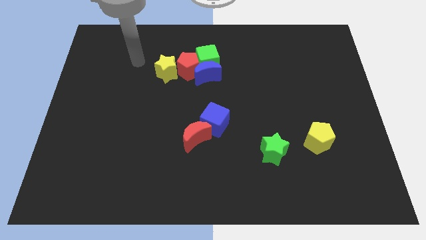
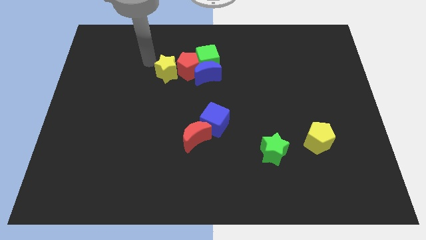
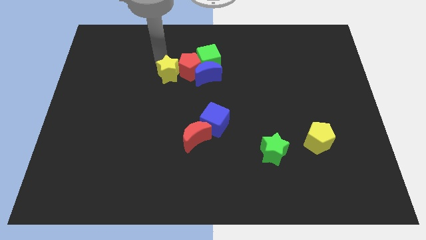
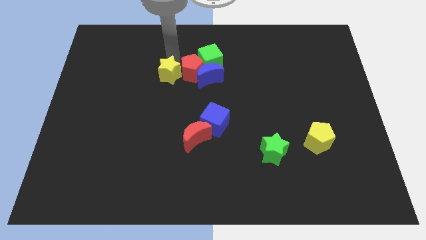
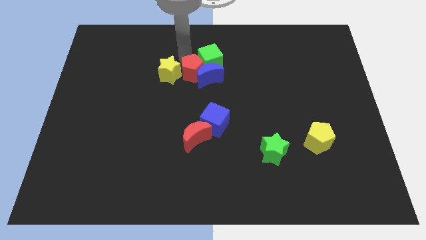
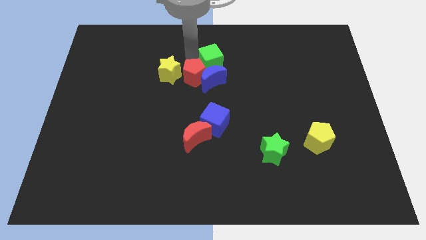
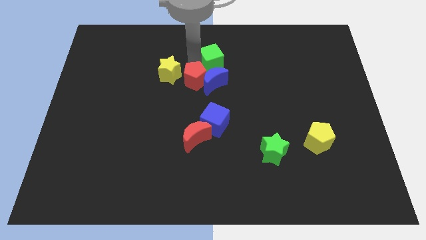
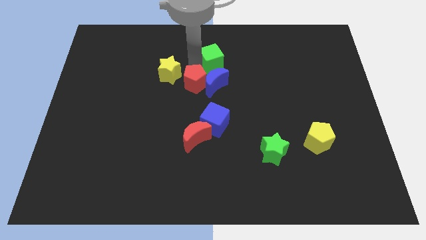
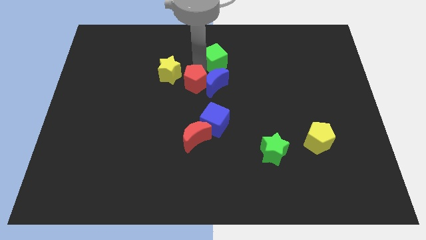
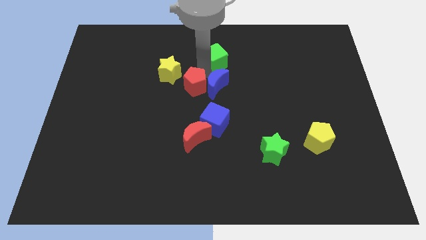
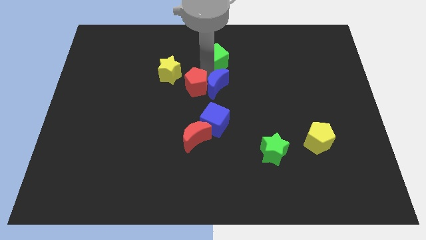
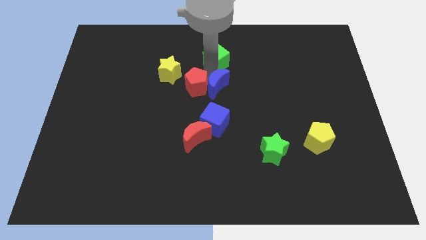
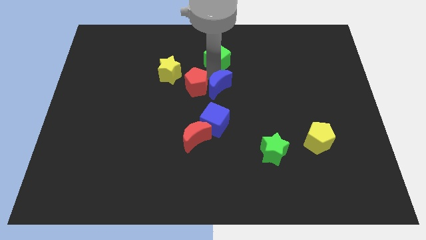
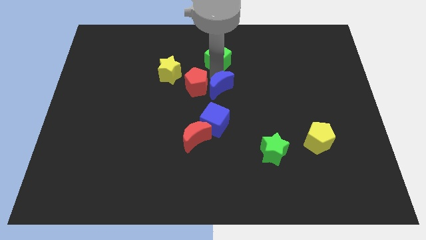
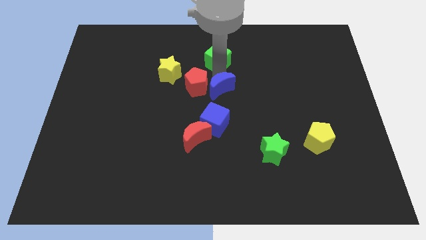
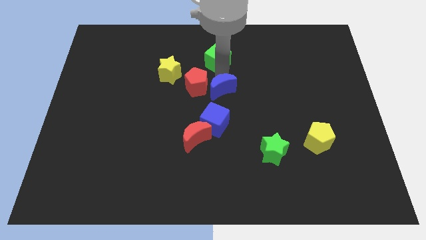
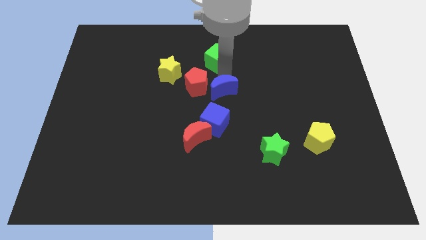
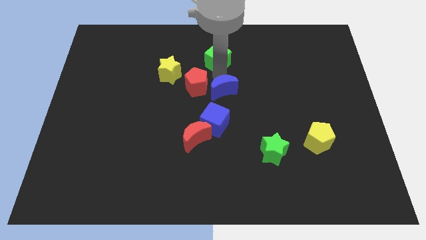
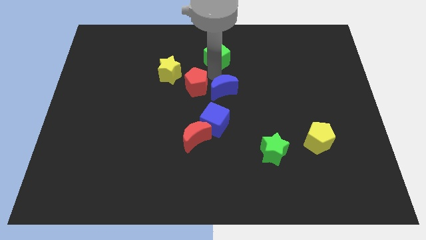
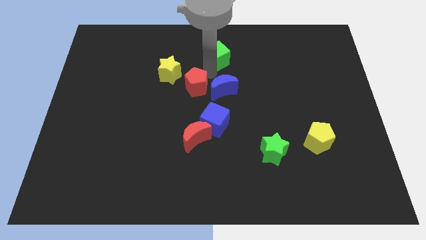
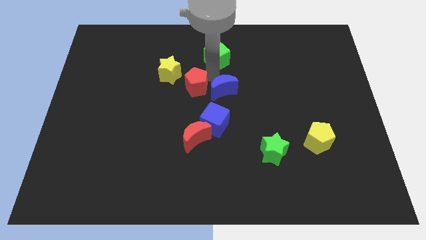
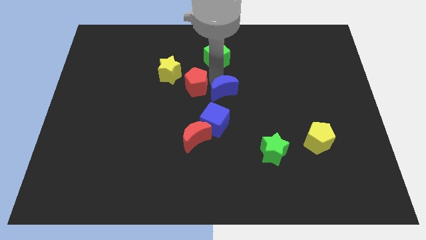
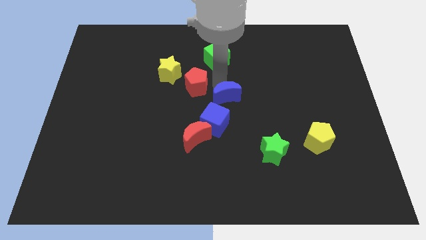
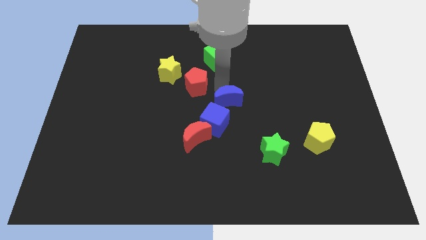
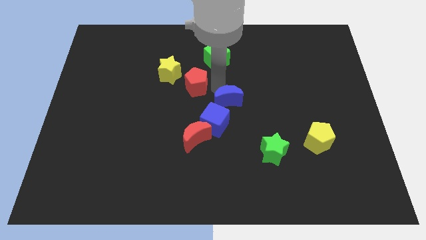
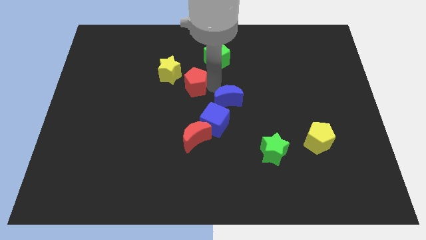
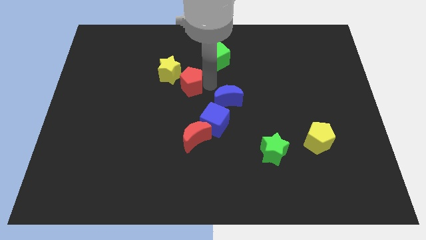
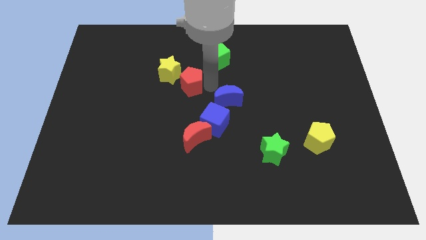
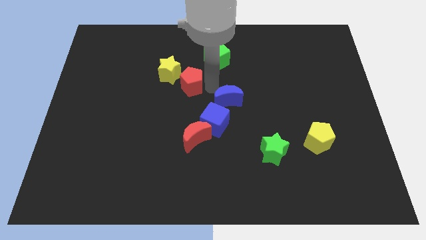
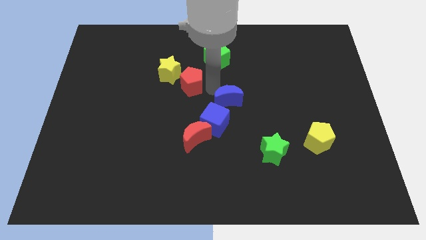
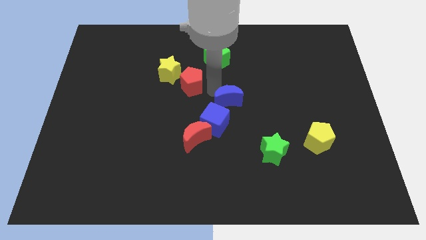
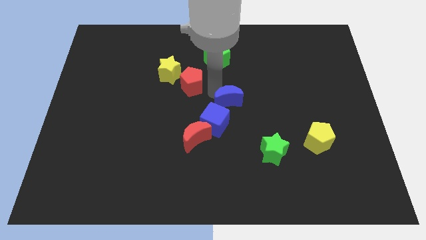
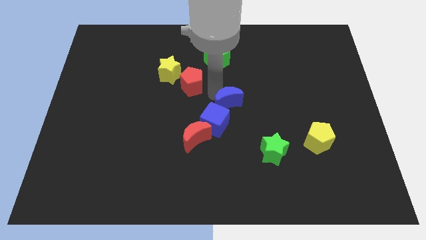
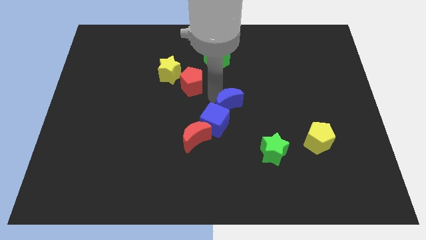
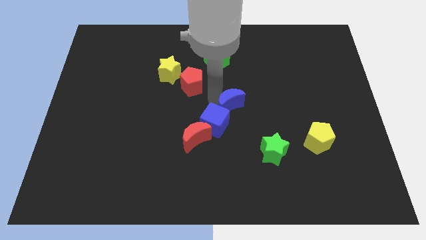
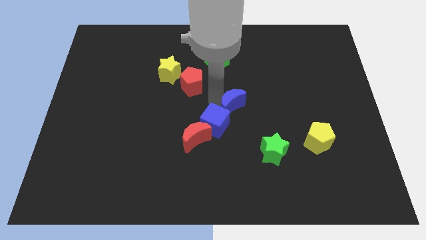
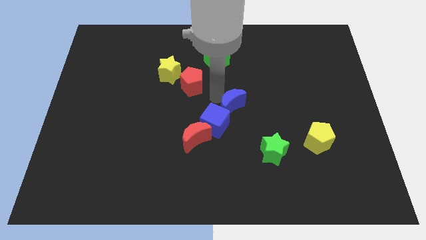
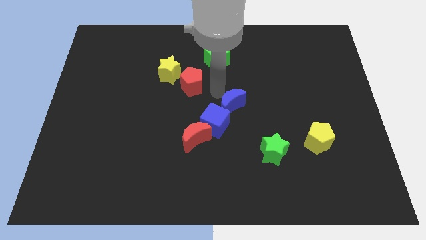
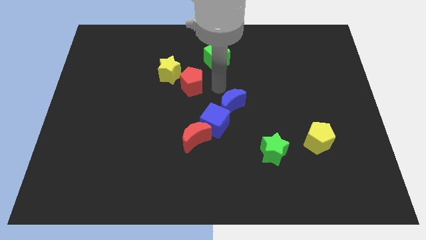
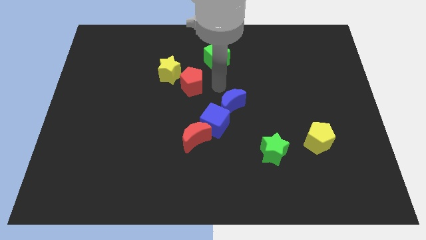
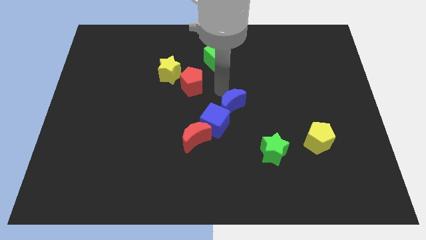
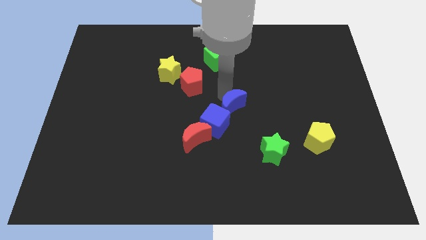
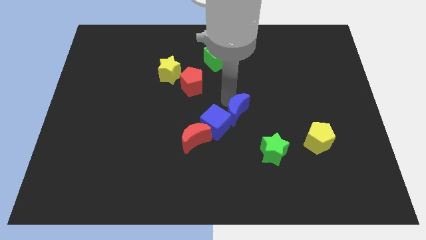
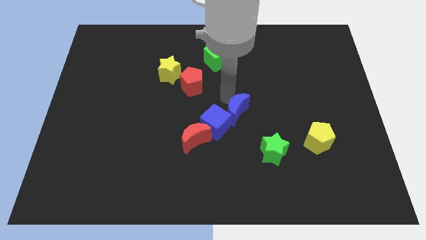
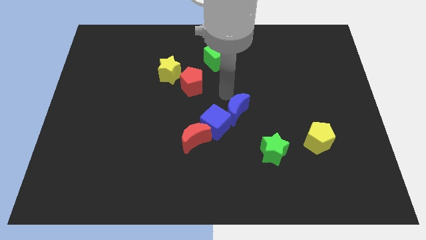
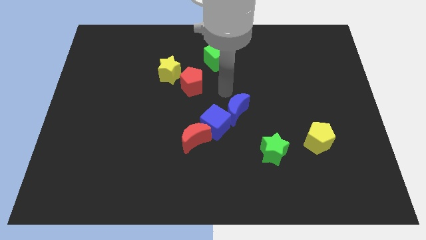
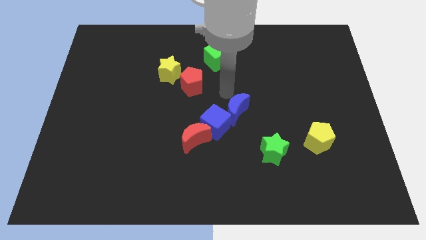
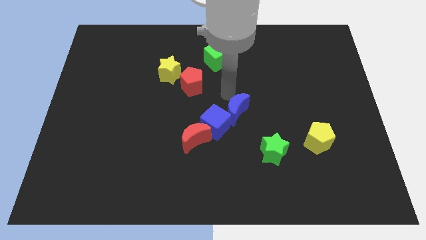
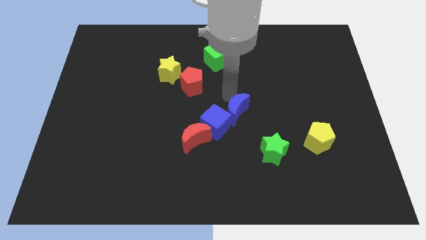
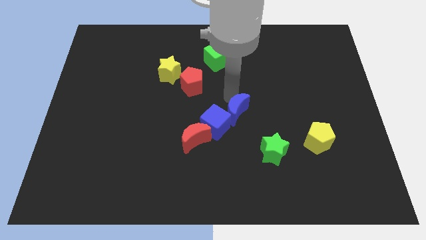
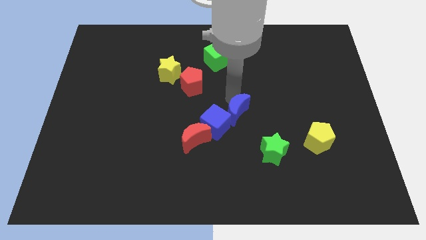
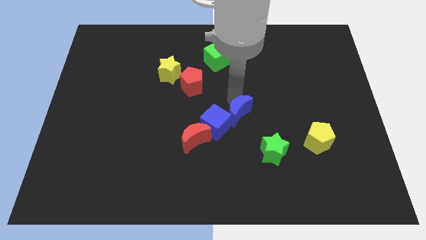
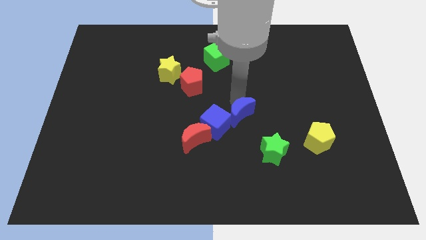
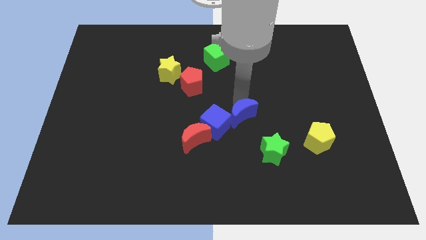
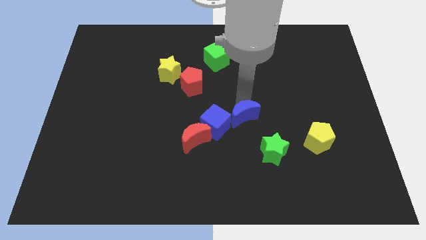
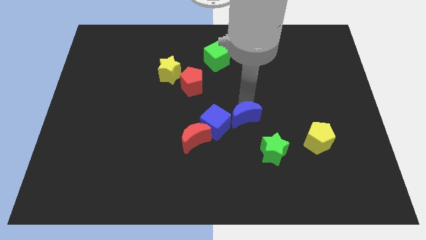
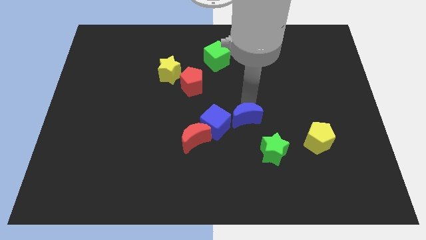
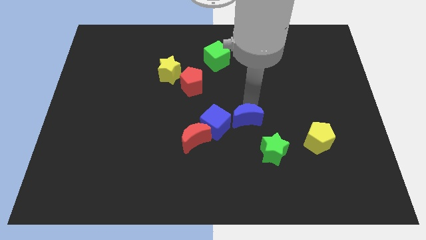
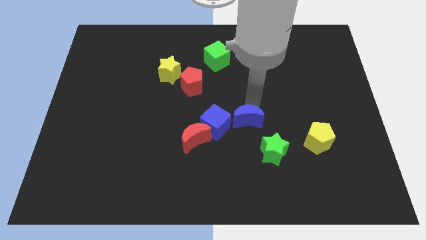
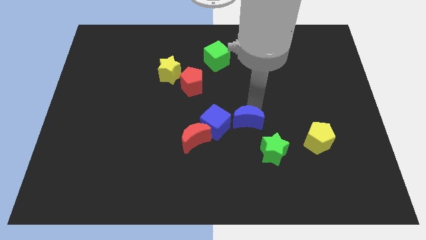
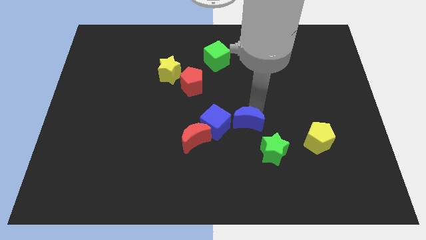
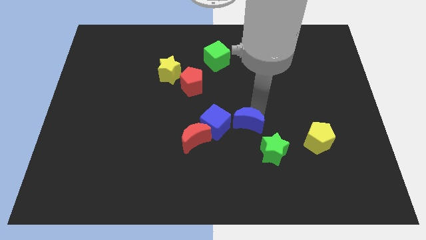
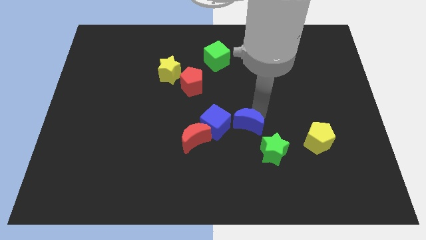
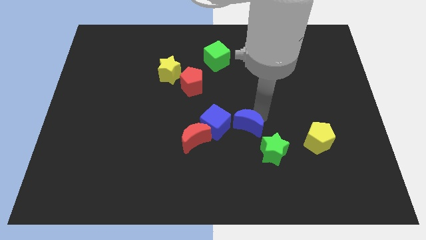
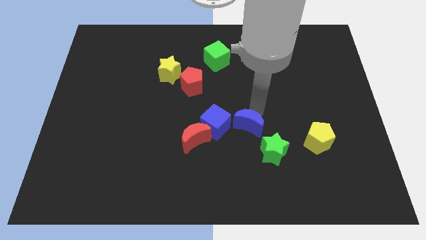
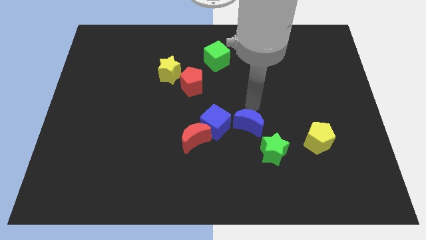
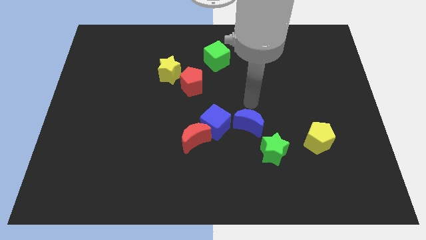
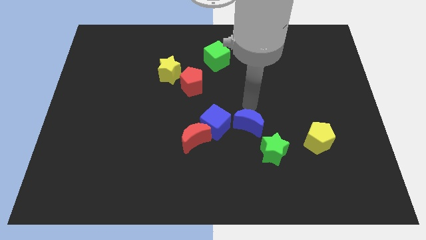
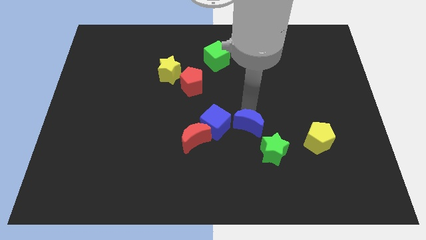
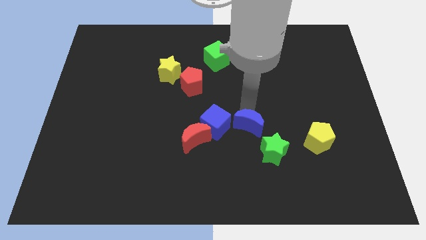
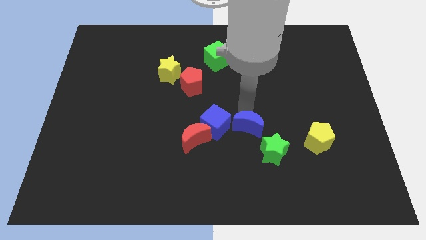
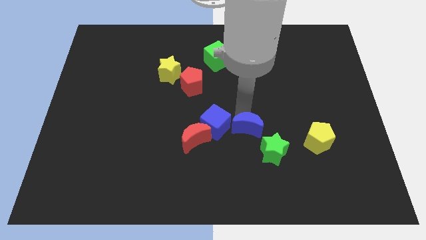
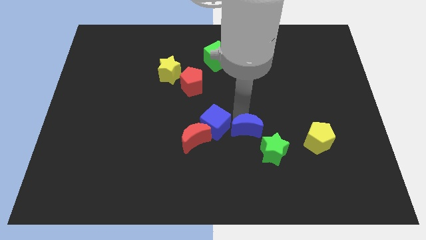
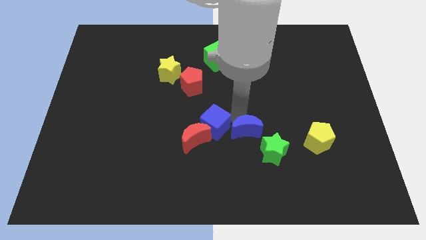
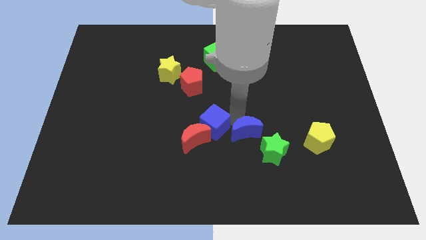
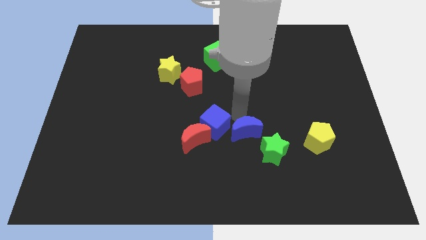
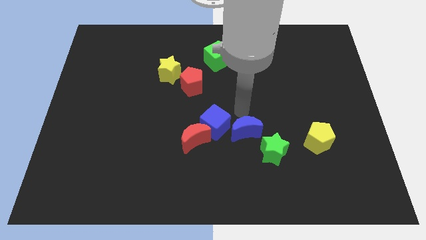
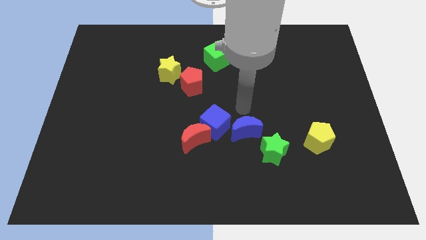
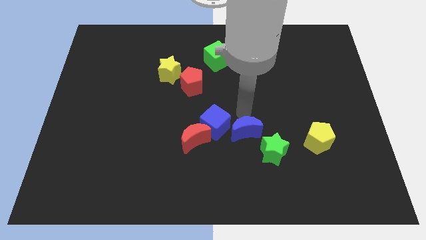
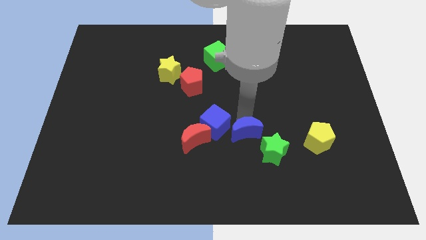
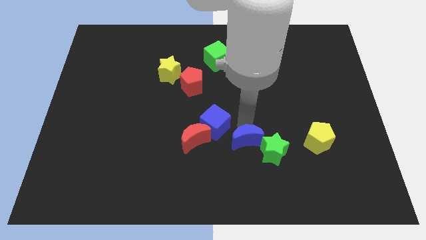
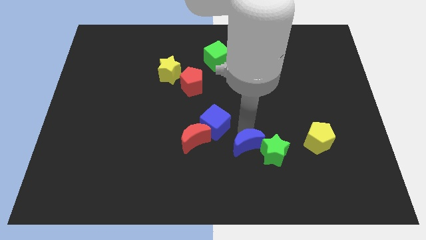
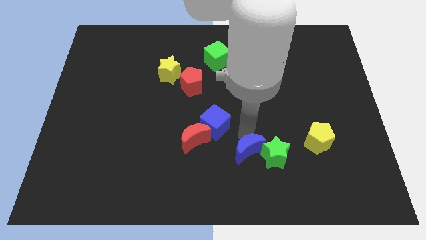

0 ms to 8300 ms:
push the blue moon to the bottom left side of the green star
